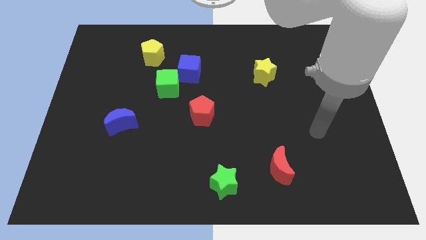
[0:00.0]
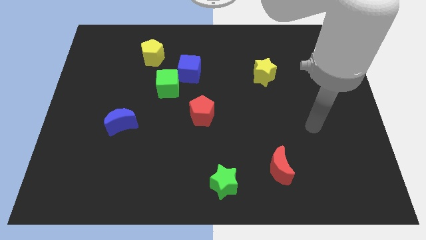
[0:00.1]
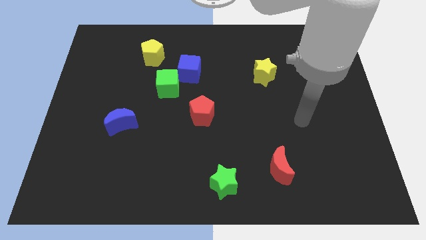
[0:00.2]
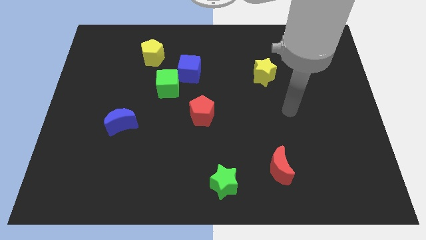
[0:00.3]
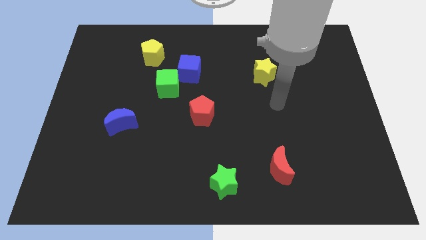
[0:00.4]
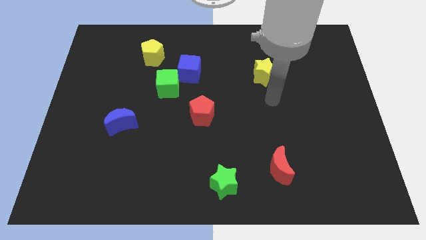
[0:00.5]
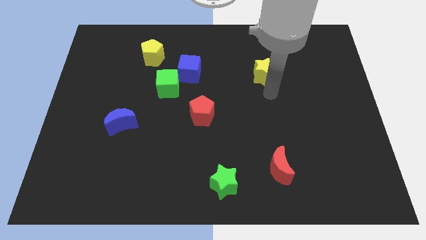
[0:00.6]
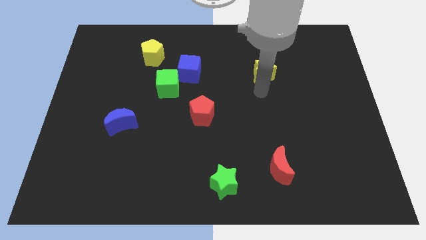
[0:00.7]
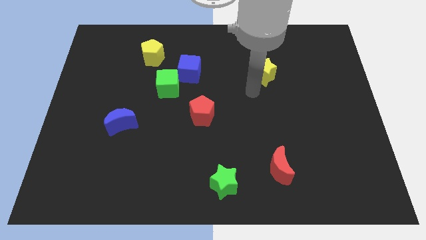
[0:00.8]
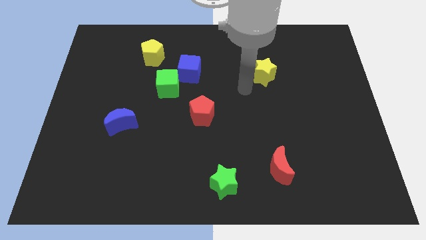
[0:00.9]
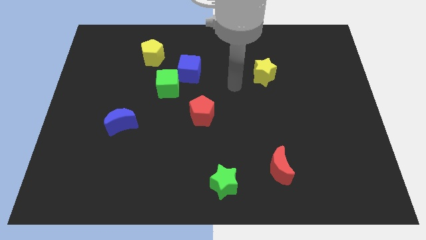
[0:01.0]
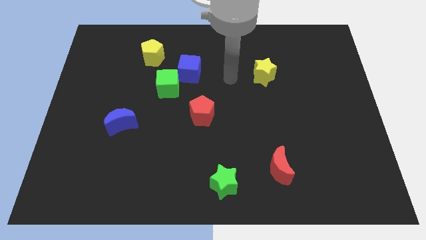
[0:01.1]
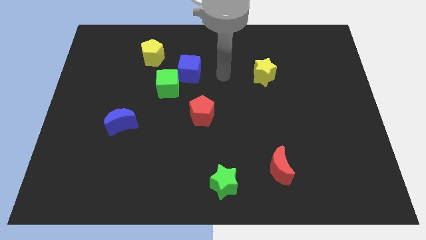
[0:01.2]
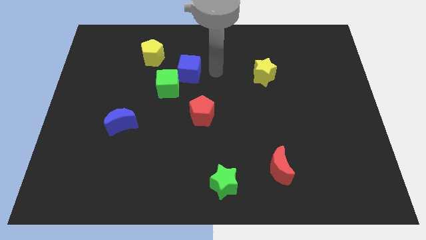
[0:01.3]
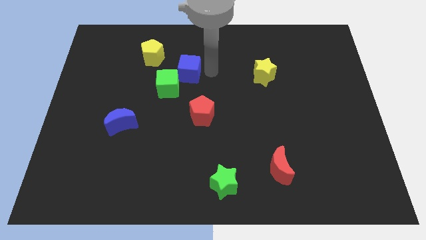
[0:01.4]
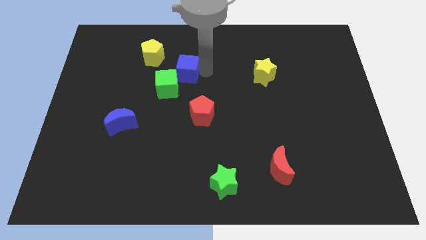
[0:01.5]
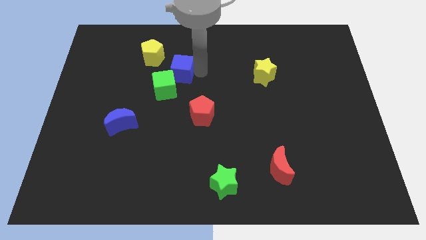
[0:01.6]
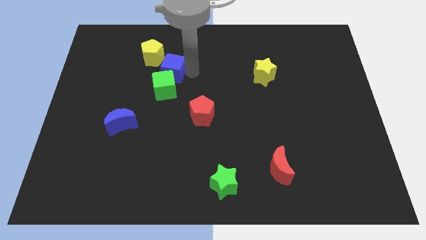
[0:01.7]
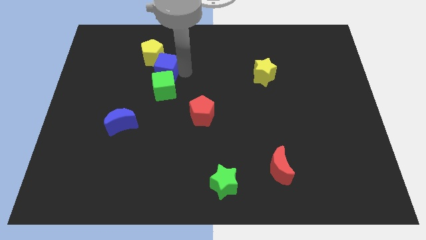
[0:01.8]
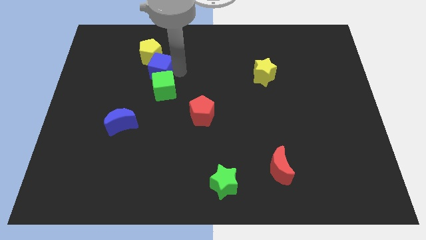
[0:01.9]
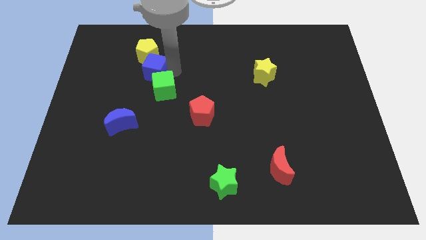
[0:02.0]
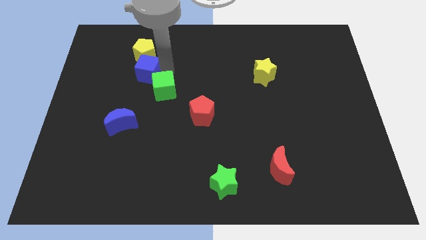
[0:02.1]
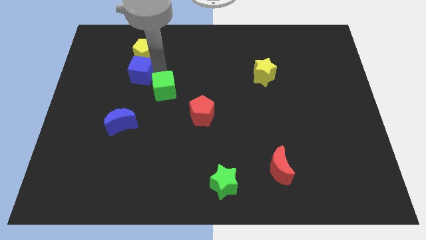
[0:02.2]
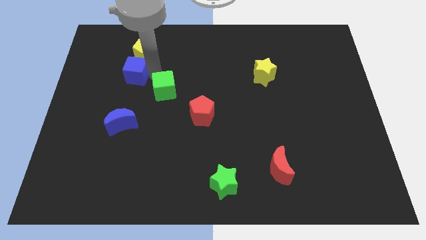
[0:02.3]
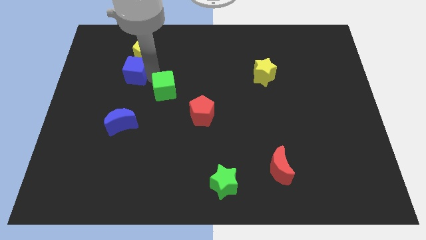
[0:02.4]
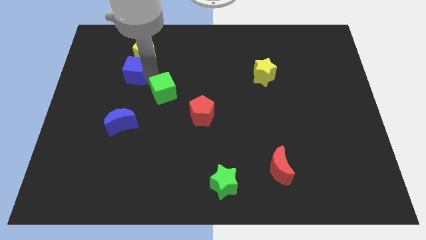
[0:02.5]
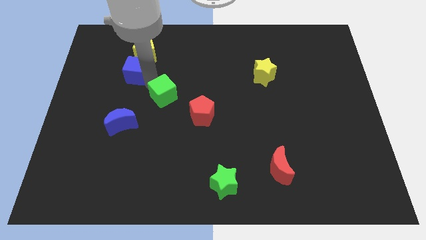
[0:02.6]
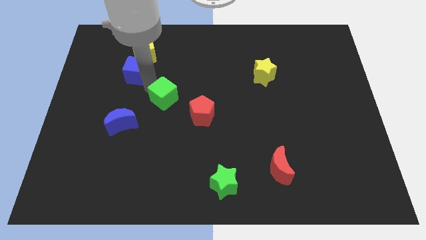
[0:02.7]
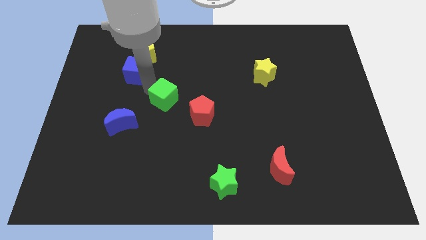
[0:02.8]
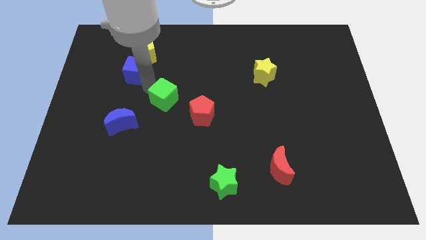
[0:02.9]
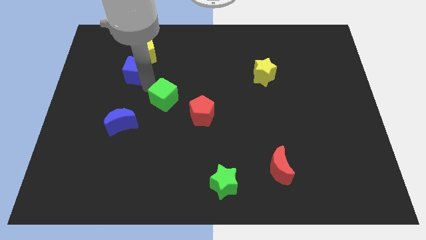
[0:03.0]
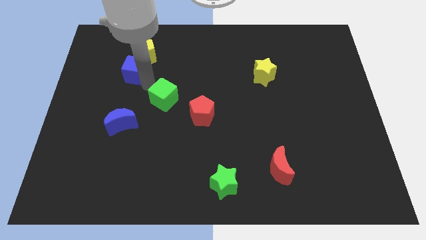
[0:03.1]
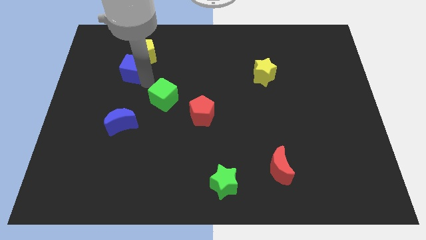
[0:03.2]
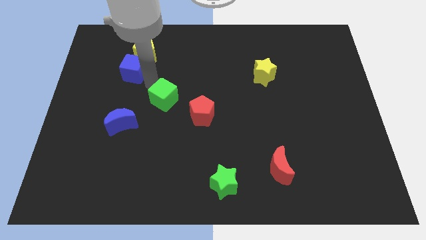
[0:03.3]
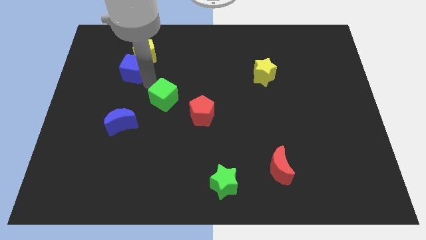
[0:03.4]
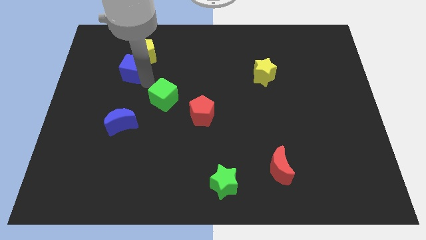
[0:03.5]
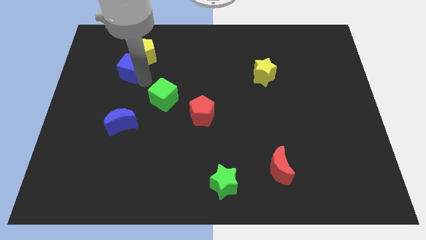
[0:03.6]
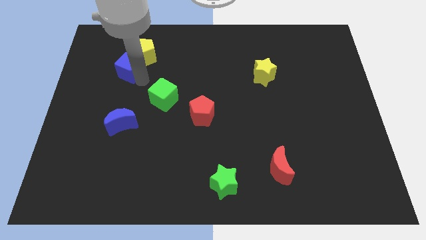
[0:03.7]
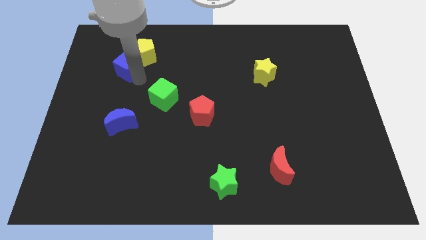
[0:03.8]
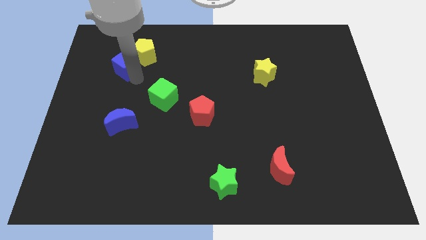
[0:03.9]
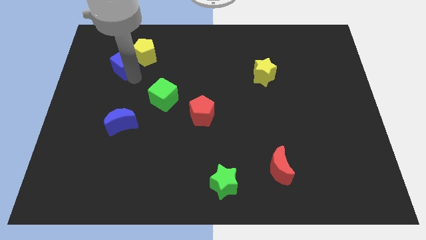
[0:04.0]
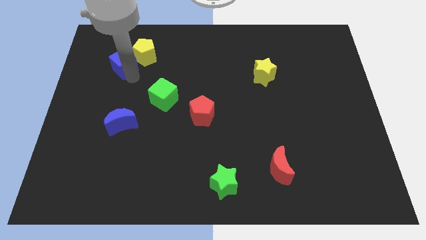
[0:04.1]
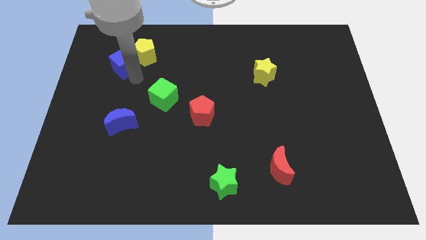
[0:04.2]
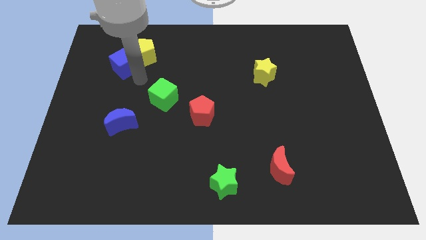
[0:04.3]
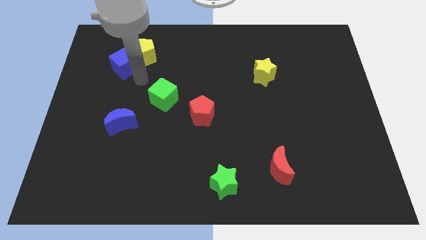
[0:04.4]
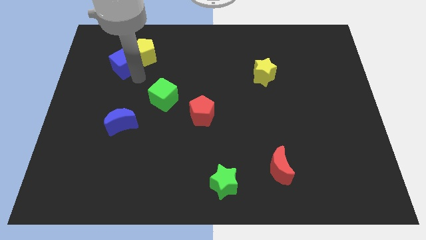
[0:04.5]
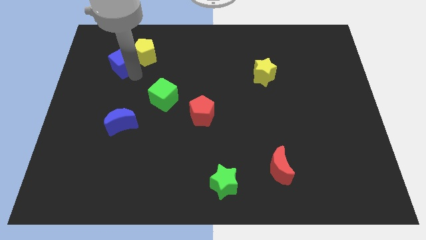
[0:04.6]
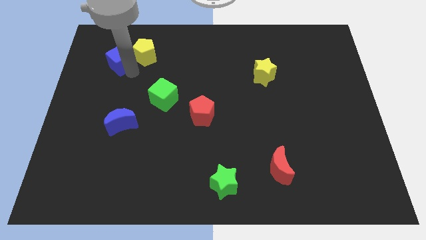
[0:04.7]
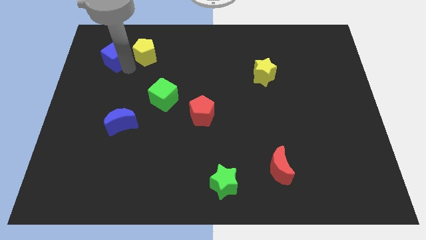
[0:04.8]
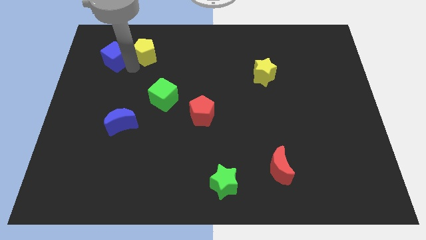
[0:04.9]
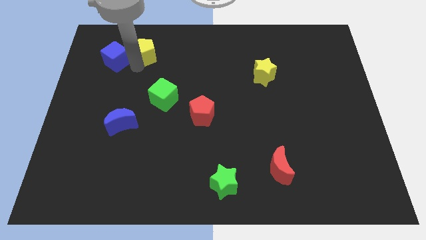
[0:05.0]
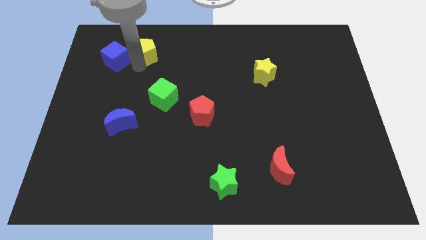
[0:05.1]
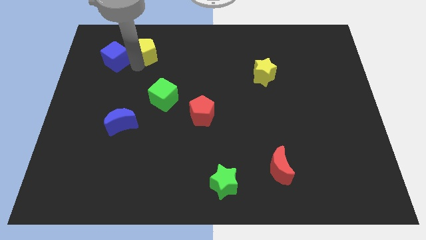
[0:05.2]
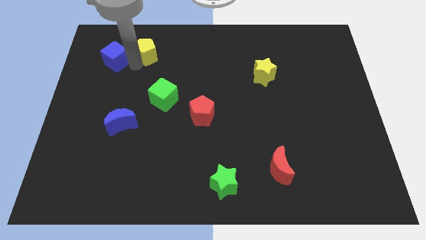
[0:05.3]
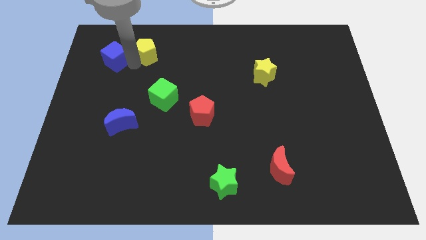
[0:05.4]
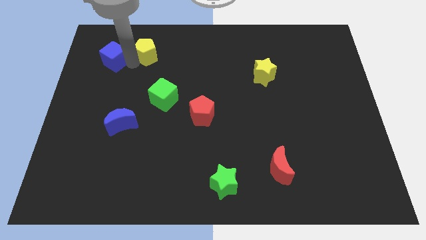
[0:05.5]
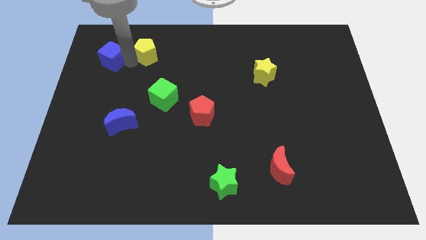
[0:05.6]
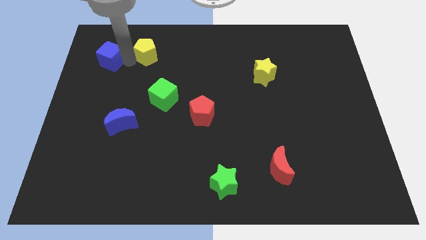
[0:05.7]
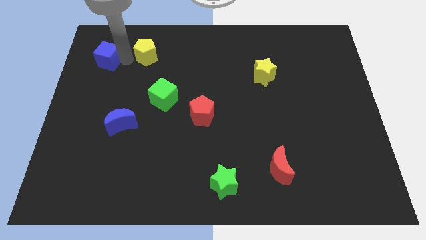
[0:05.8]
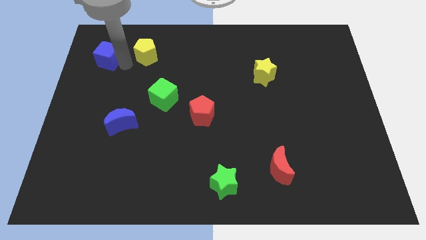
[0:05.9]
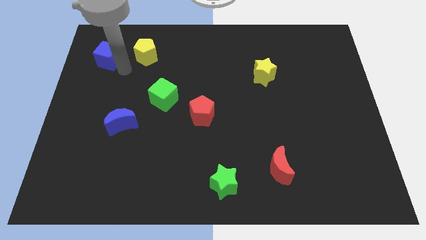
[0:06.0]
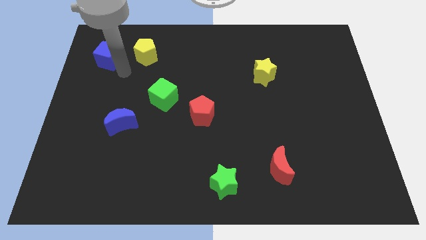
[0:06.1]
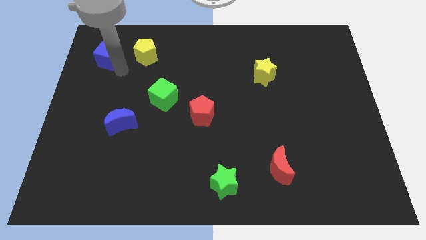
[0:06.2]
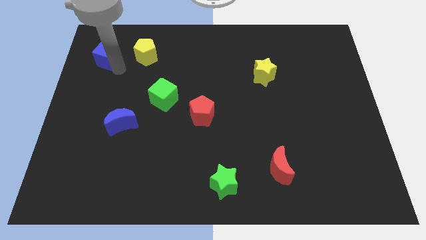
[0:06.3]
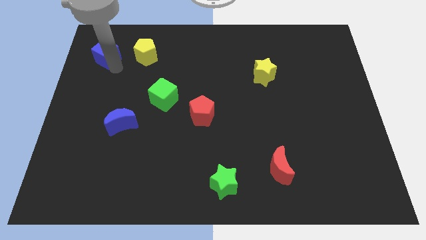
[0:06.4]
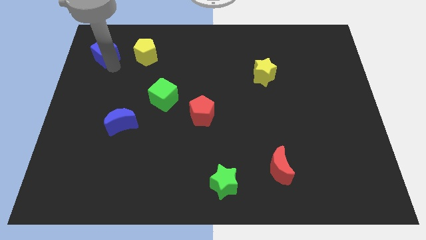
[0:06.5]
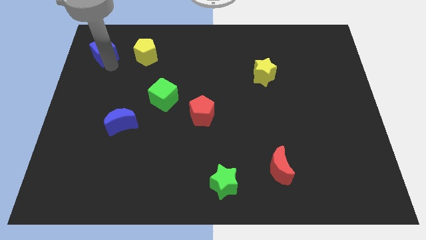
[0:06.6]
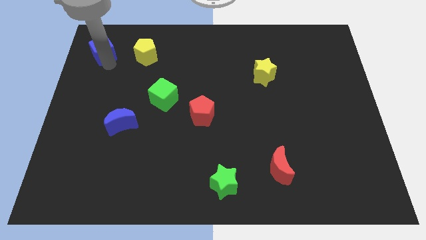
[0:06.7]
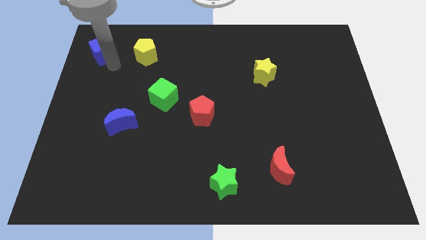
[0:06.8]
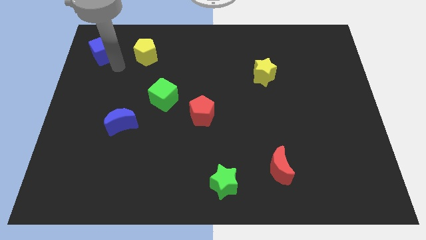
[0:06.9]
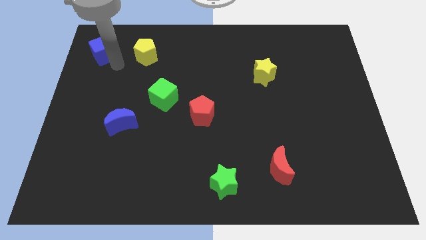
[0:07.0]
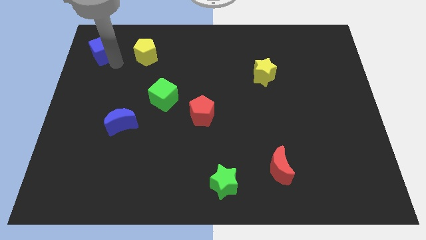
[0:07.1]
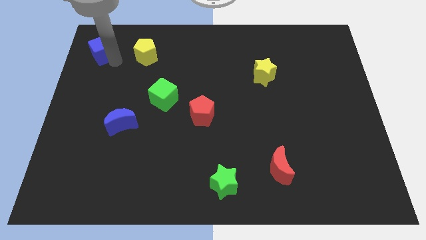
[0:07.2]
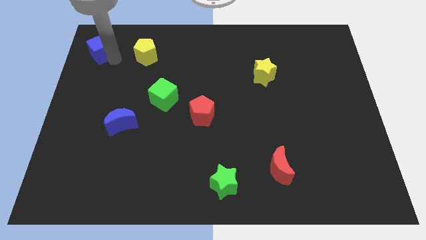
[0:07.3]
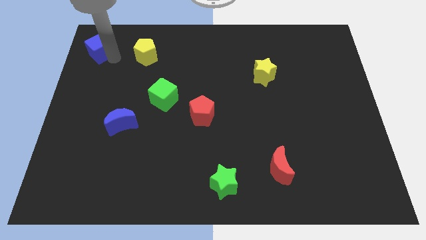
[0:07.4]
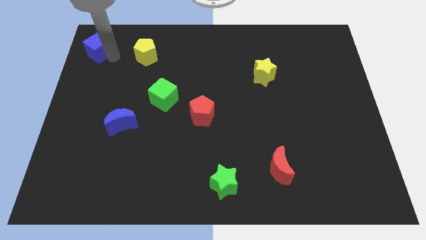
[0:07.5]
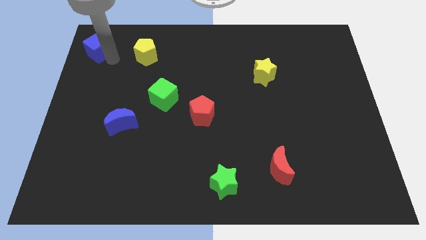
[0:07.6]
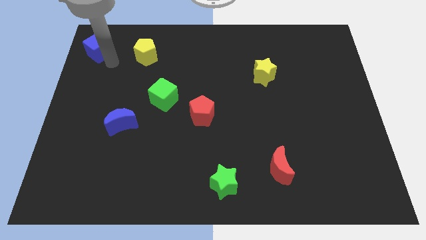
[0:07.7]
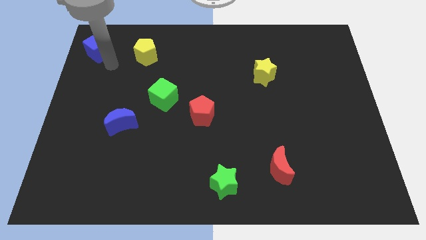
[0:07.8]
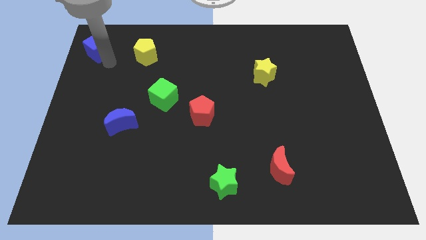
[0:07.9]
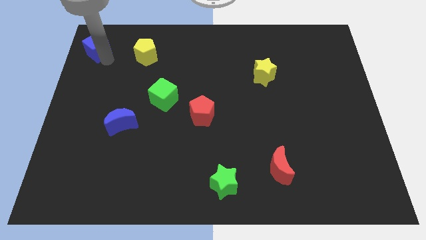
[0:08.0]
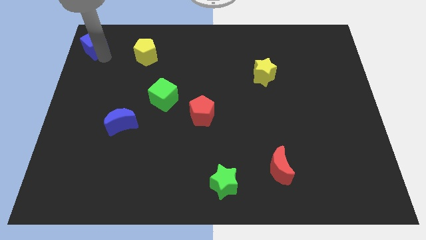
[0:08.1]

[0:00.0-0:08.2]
put the blue cube to the top left corner
